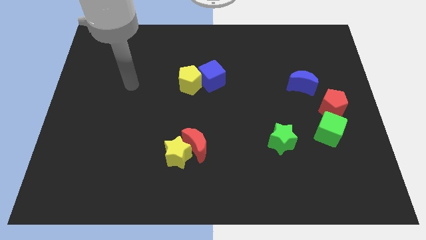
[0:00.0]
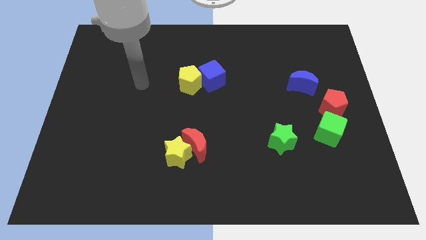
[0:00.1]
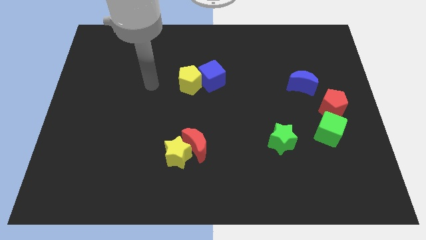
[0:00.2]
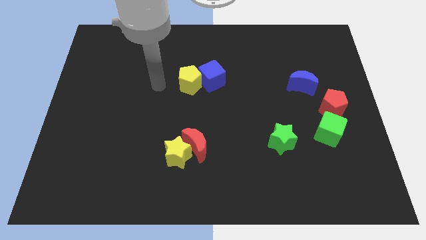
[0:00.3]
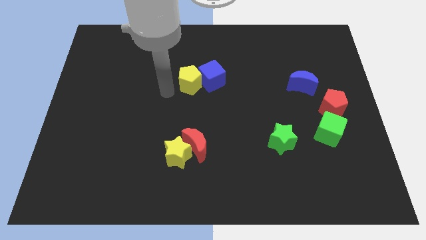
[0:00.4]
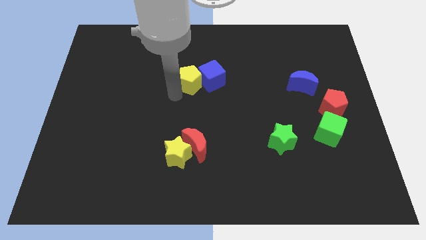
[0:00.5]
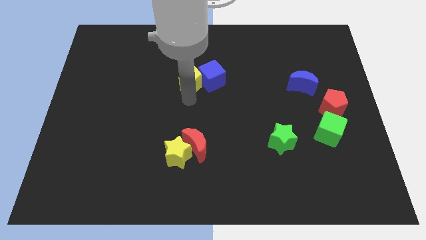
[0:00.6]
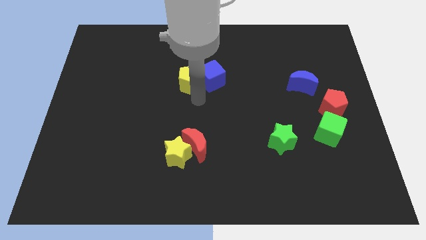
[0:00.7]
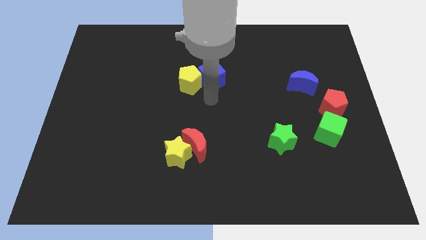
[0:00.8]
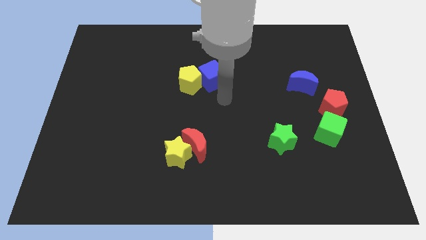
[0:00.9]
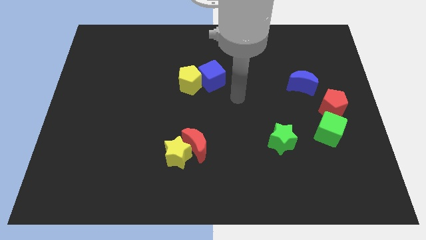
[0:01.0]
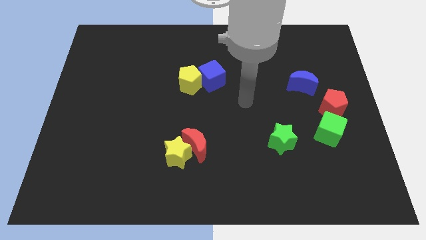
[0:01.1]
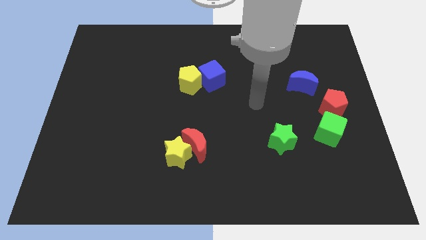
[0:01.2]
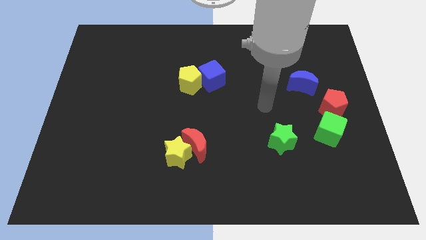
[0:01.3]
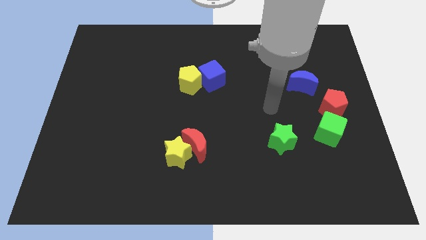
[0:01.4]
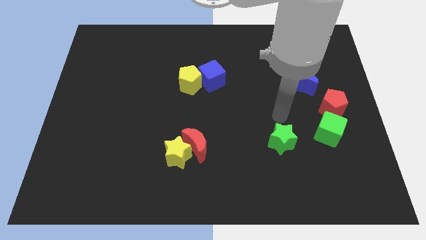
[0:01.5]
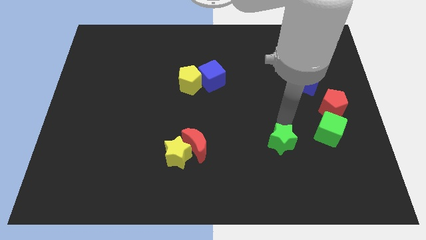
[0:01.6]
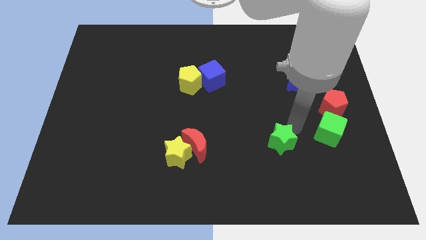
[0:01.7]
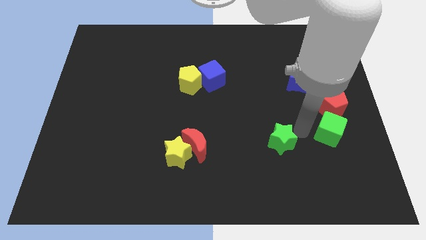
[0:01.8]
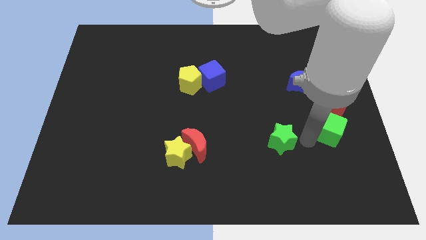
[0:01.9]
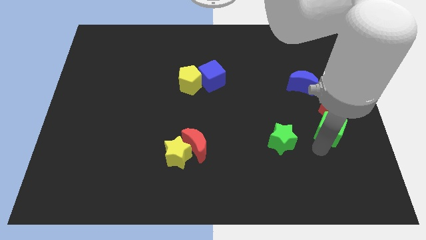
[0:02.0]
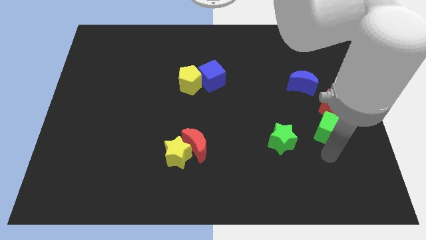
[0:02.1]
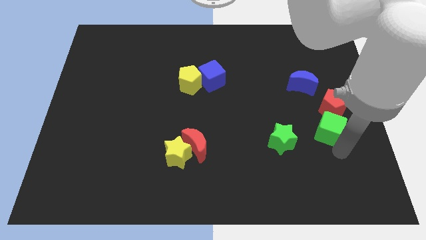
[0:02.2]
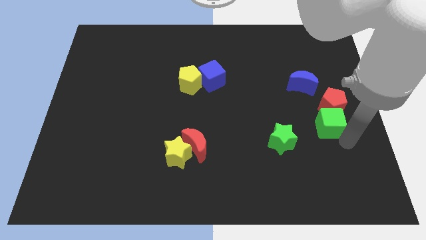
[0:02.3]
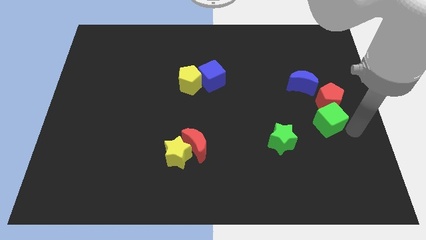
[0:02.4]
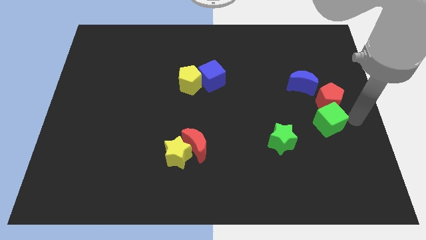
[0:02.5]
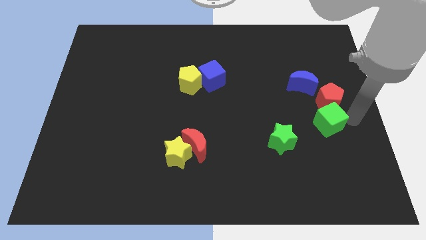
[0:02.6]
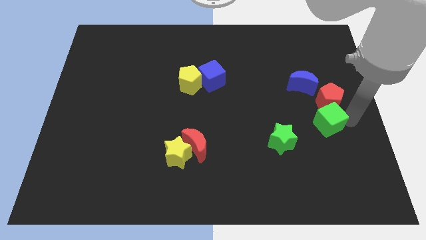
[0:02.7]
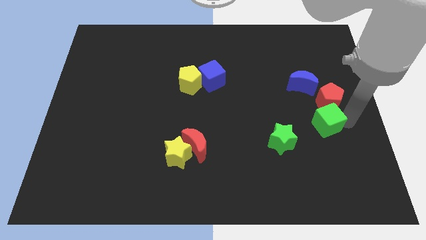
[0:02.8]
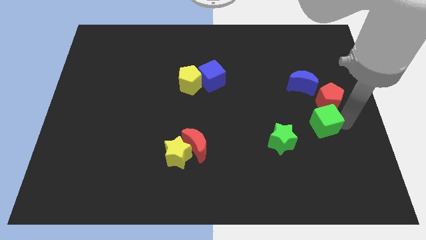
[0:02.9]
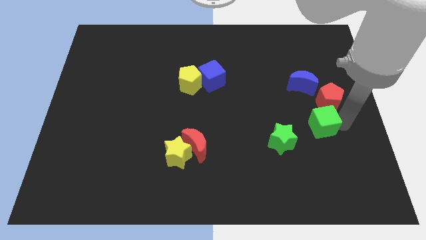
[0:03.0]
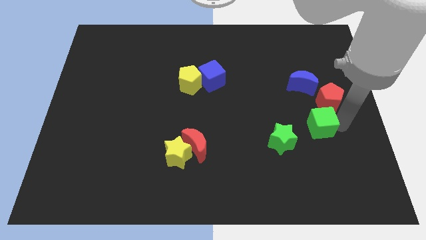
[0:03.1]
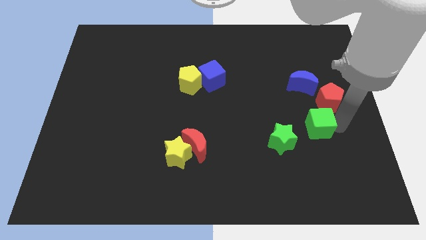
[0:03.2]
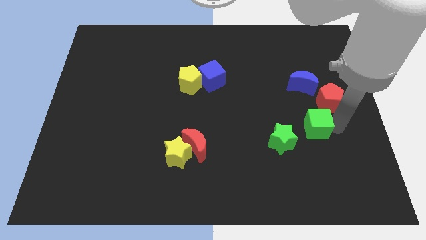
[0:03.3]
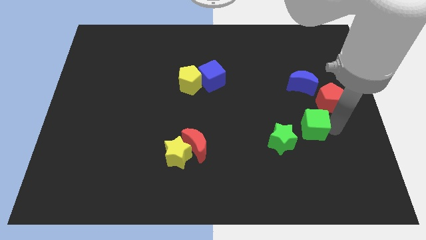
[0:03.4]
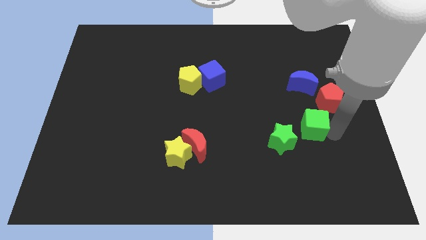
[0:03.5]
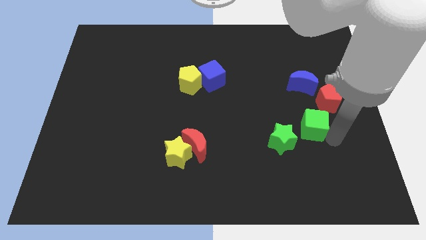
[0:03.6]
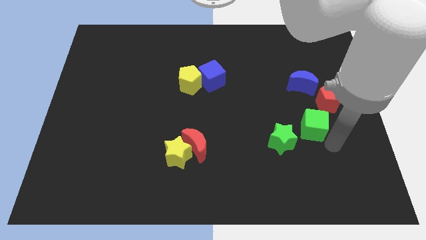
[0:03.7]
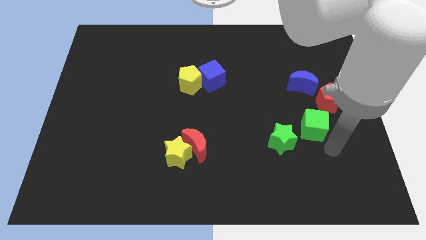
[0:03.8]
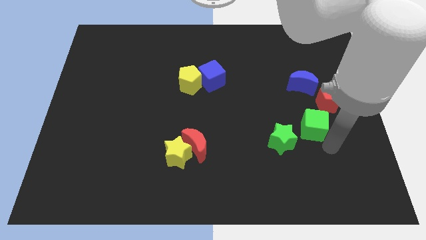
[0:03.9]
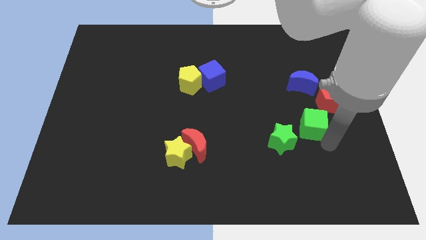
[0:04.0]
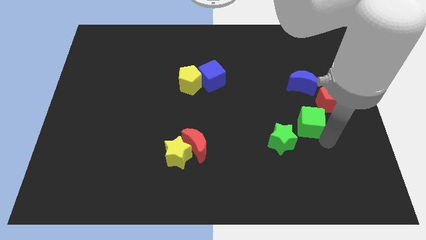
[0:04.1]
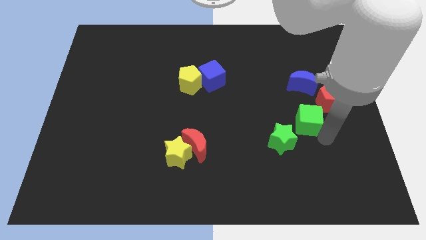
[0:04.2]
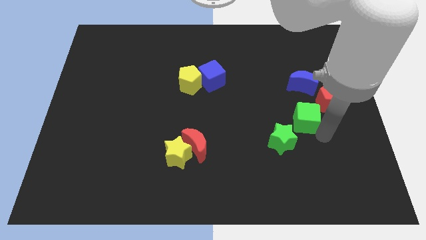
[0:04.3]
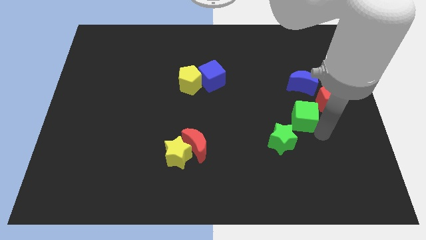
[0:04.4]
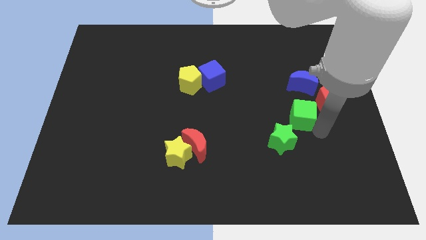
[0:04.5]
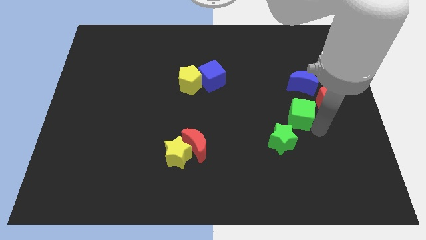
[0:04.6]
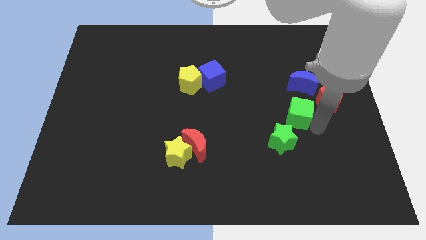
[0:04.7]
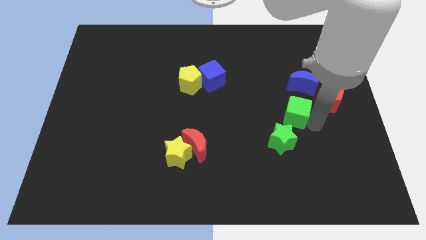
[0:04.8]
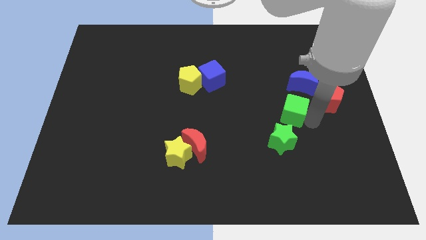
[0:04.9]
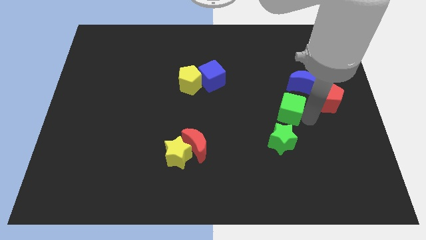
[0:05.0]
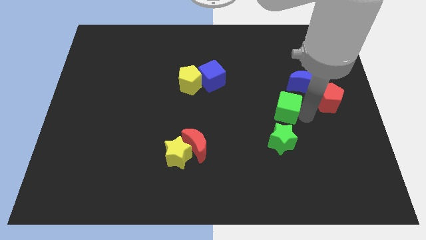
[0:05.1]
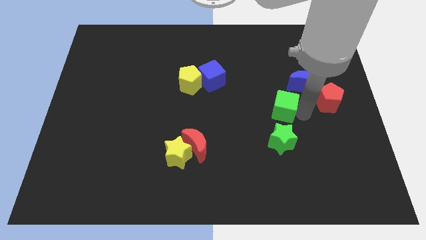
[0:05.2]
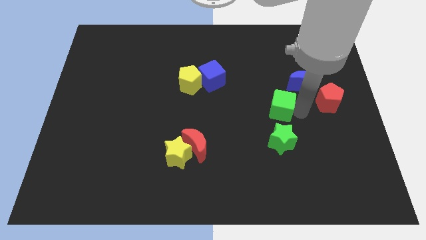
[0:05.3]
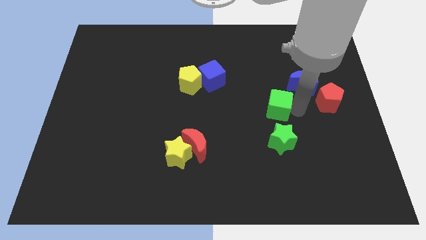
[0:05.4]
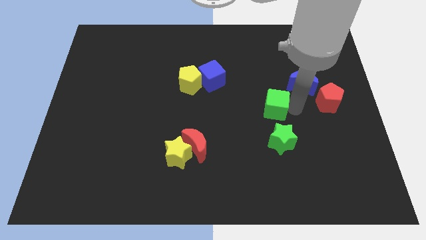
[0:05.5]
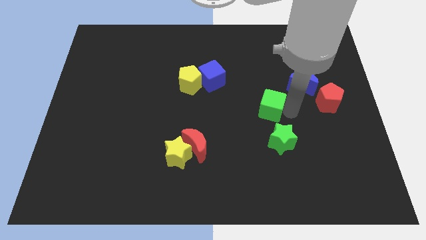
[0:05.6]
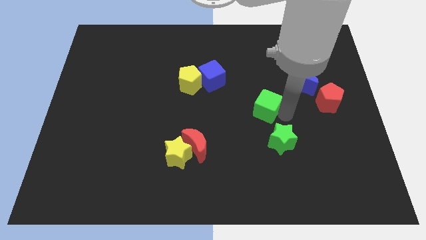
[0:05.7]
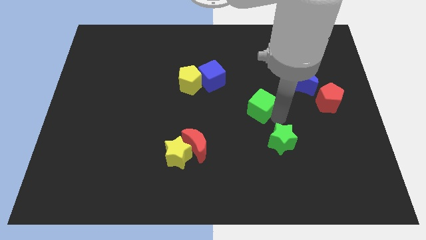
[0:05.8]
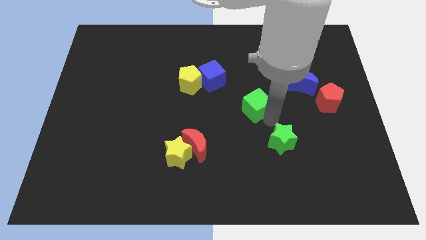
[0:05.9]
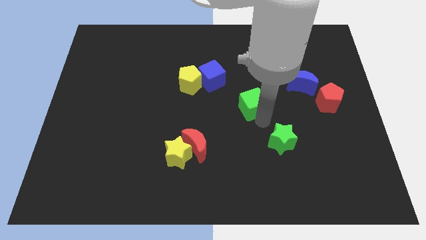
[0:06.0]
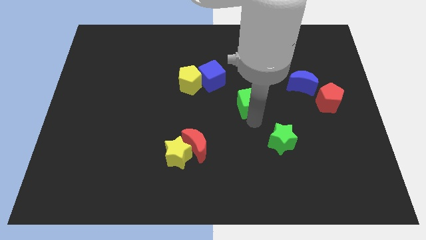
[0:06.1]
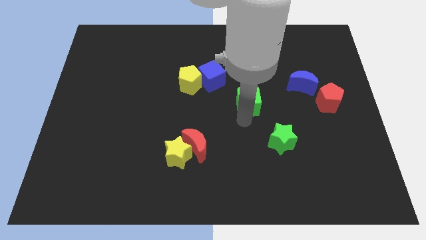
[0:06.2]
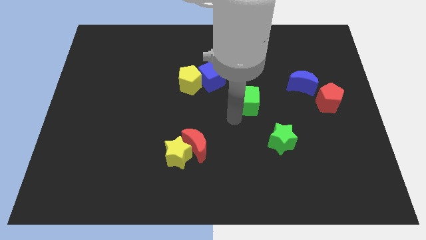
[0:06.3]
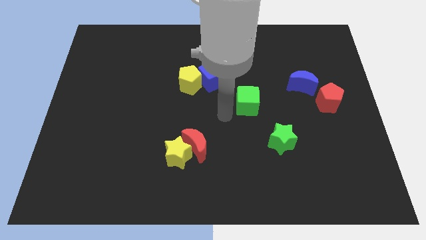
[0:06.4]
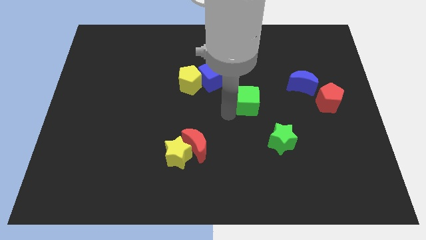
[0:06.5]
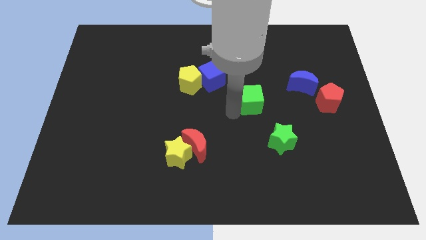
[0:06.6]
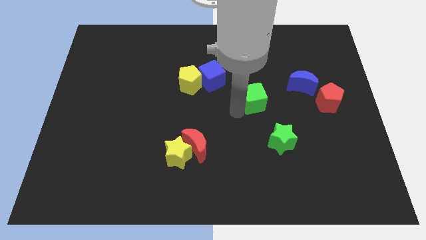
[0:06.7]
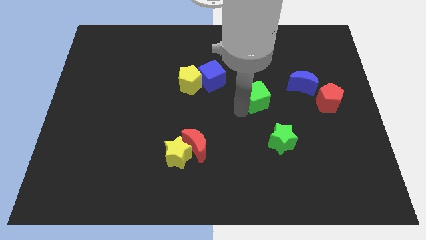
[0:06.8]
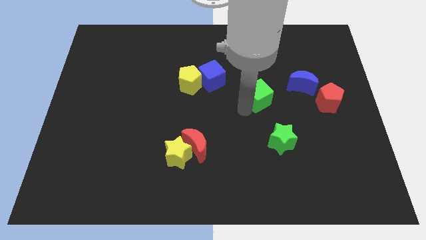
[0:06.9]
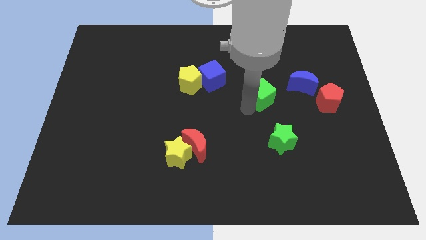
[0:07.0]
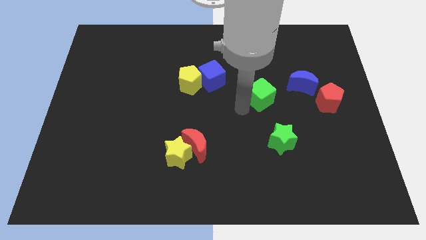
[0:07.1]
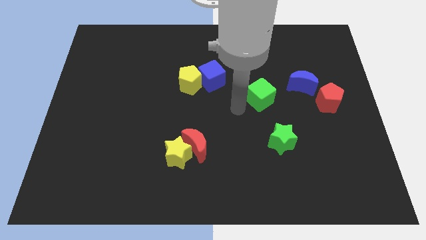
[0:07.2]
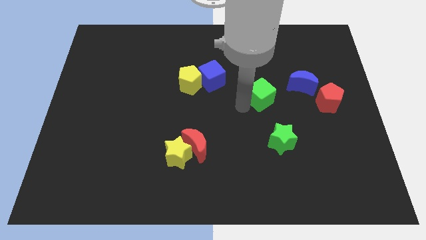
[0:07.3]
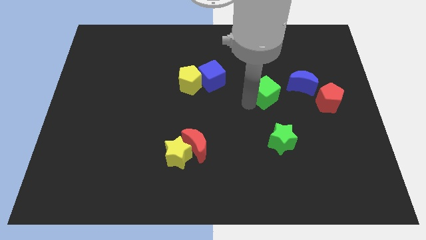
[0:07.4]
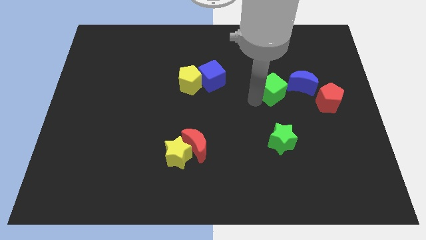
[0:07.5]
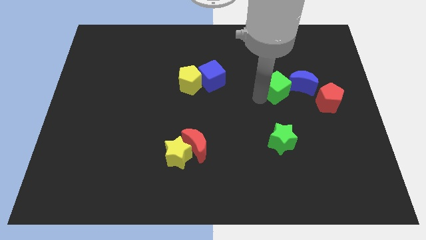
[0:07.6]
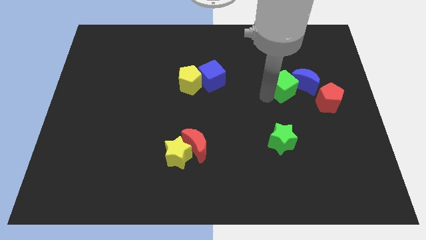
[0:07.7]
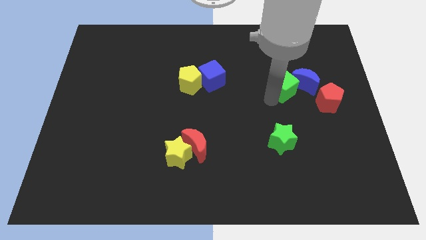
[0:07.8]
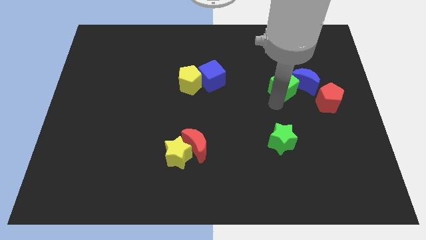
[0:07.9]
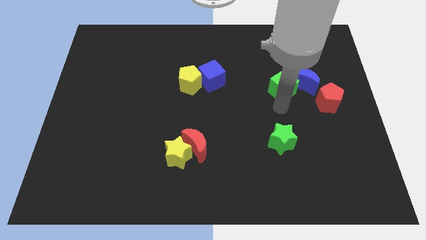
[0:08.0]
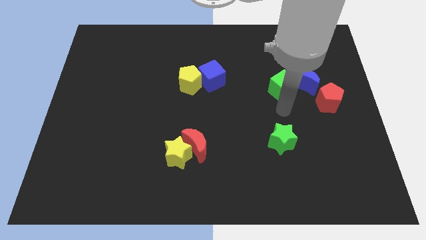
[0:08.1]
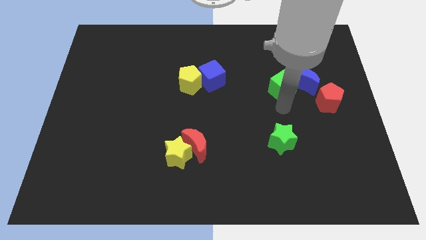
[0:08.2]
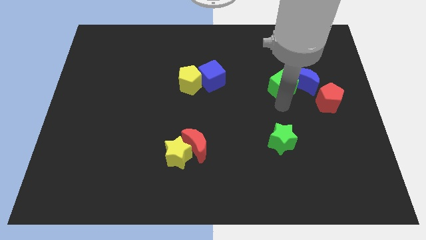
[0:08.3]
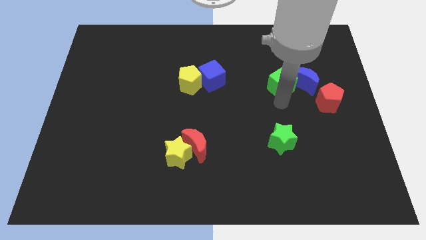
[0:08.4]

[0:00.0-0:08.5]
push the green cube to the top left of the blue moon
